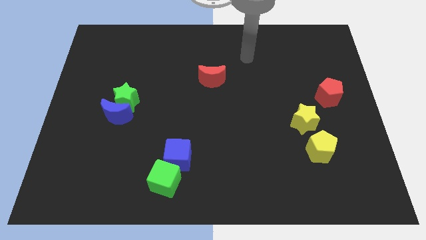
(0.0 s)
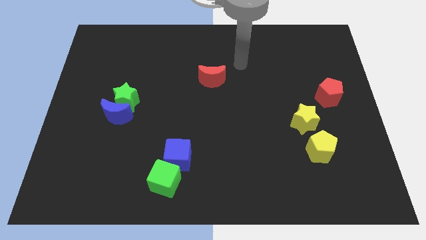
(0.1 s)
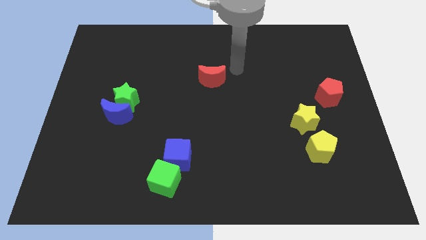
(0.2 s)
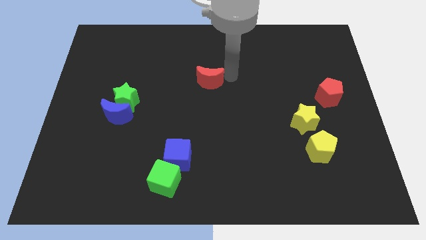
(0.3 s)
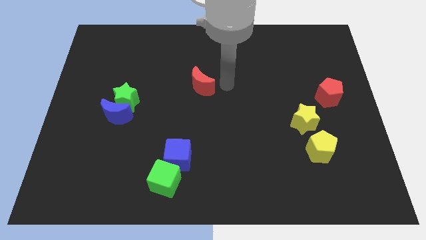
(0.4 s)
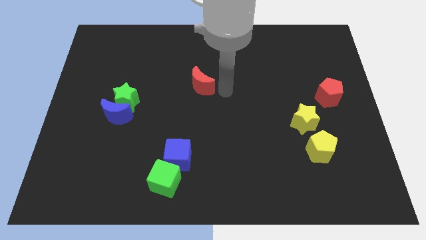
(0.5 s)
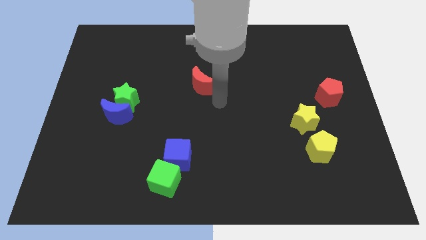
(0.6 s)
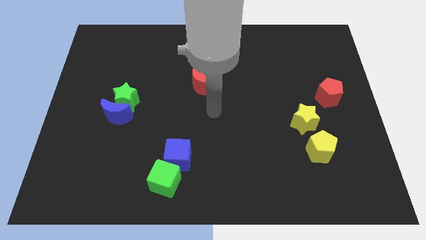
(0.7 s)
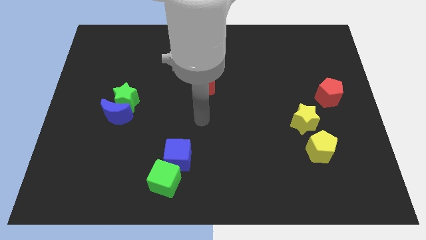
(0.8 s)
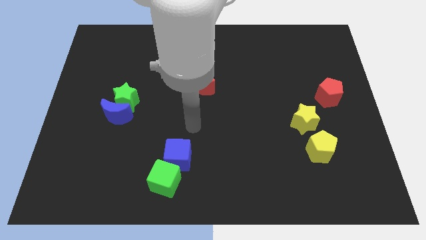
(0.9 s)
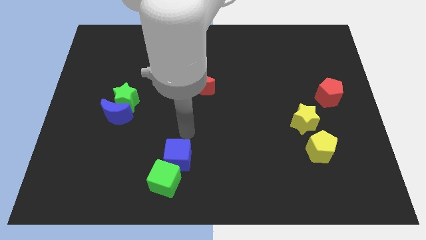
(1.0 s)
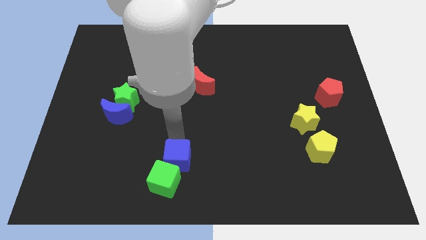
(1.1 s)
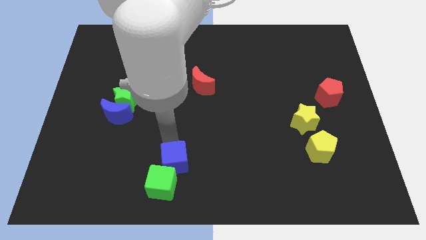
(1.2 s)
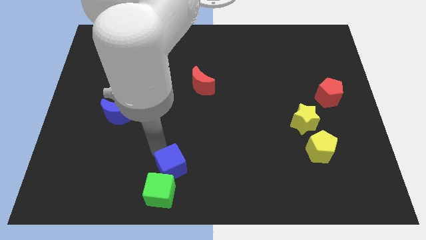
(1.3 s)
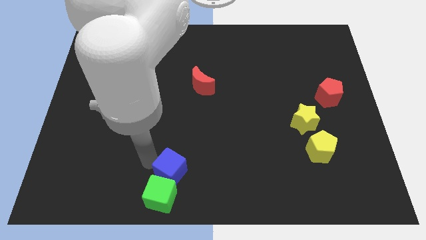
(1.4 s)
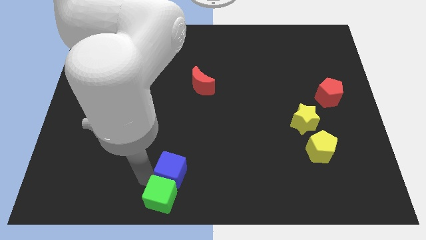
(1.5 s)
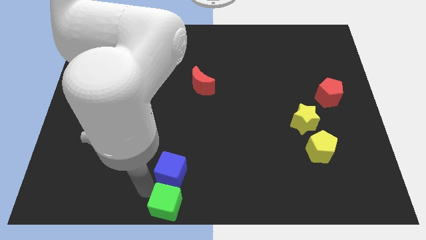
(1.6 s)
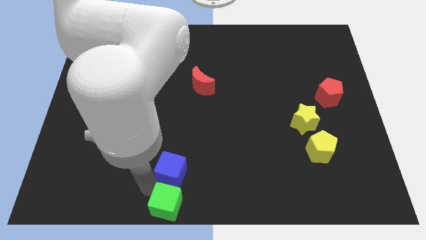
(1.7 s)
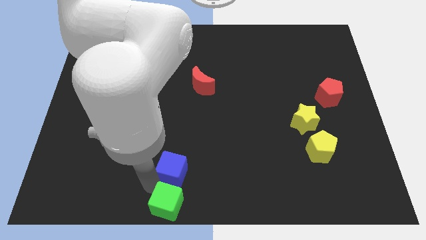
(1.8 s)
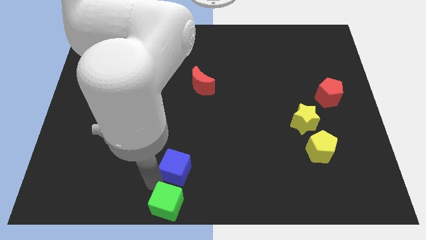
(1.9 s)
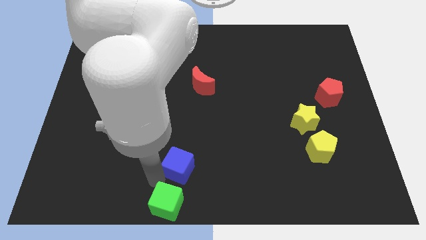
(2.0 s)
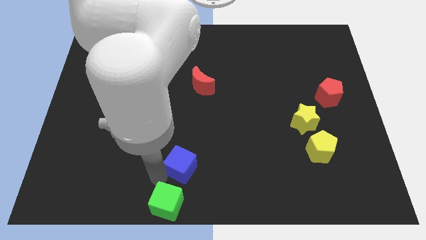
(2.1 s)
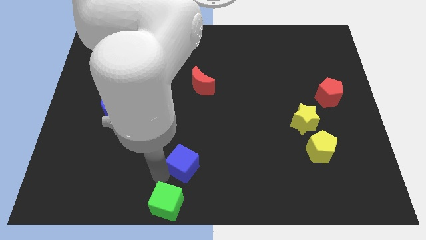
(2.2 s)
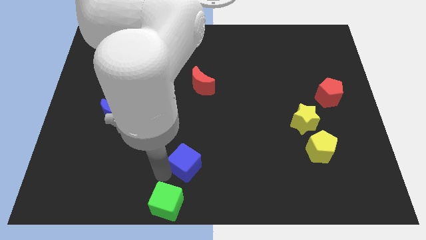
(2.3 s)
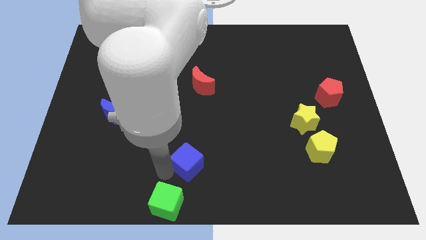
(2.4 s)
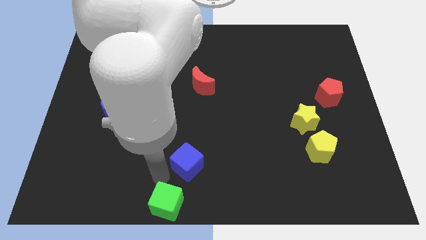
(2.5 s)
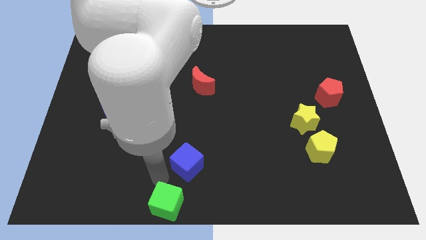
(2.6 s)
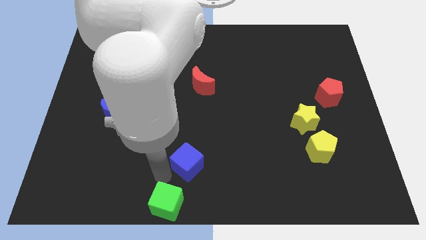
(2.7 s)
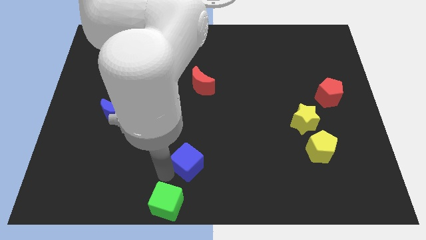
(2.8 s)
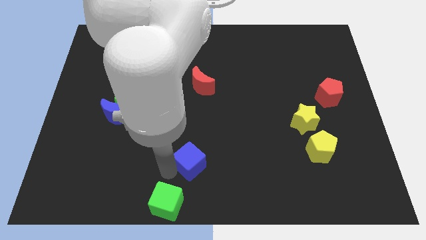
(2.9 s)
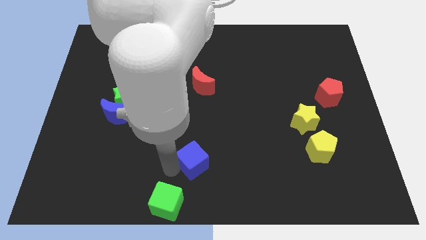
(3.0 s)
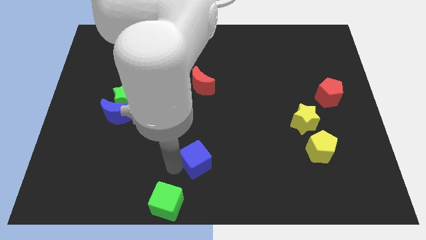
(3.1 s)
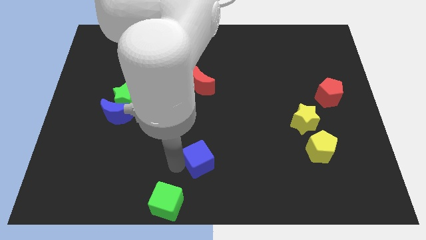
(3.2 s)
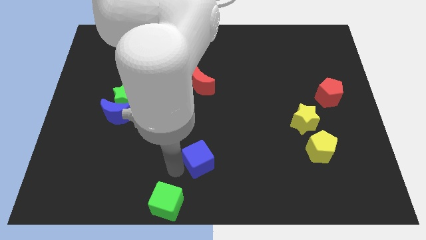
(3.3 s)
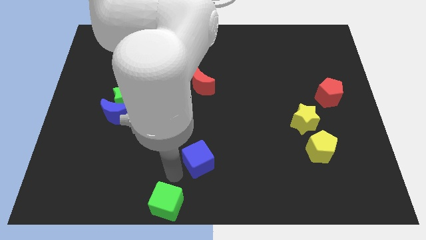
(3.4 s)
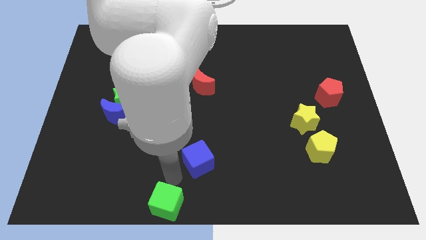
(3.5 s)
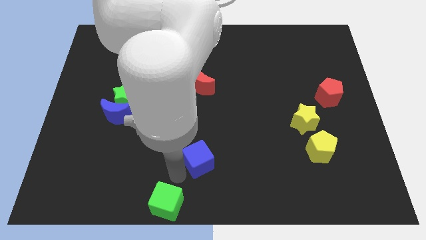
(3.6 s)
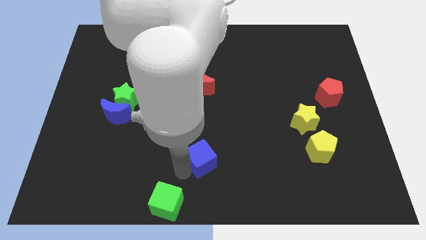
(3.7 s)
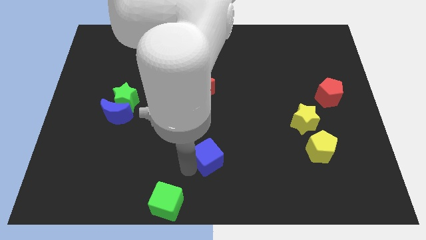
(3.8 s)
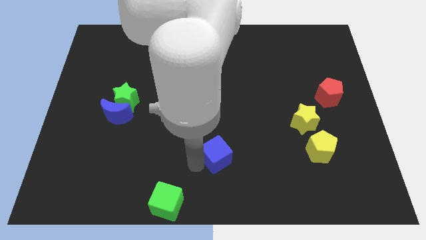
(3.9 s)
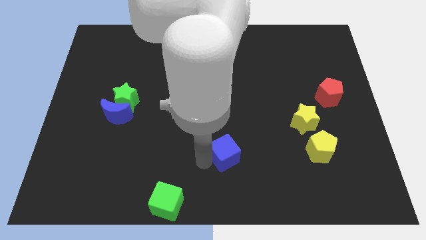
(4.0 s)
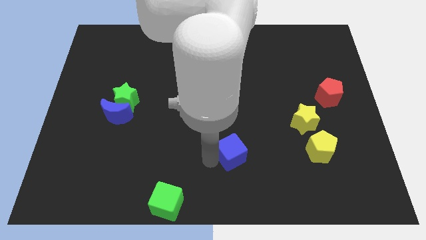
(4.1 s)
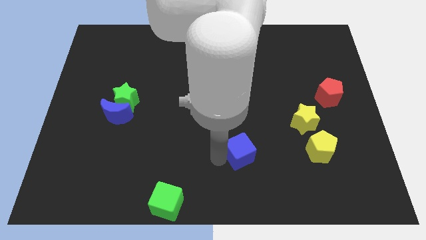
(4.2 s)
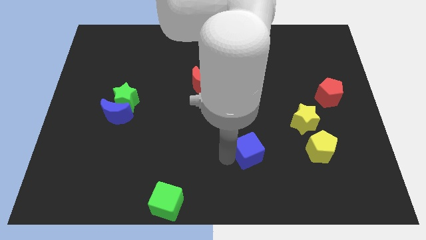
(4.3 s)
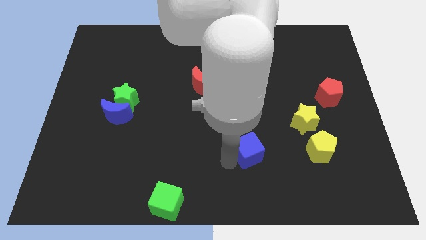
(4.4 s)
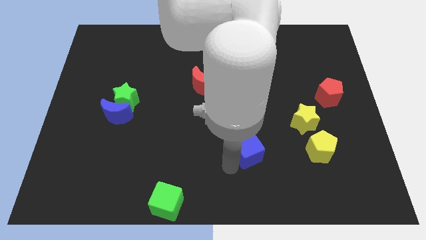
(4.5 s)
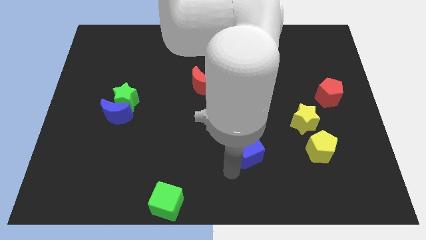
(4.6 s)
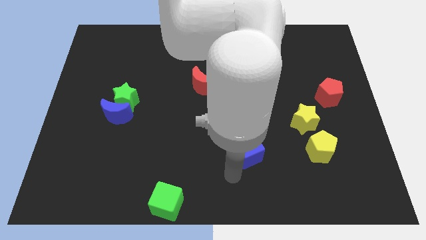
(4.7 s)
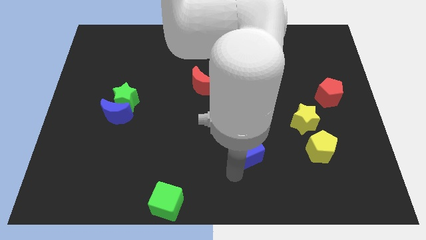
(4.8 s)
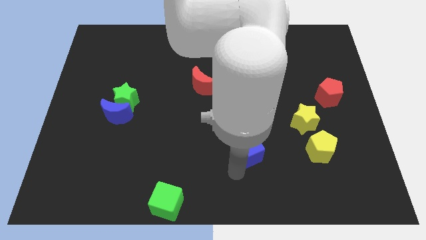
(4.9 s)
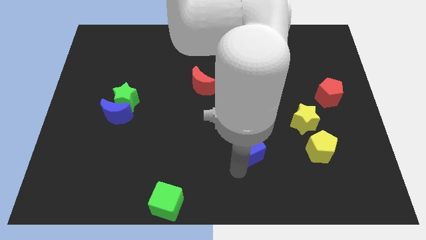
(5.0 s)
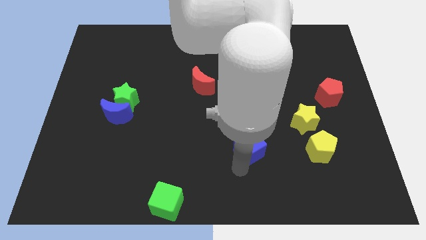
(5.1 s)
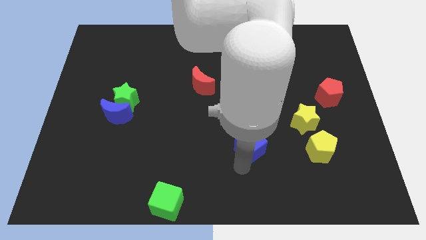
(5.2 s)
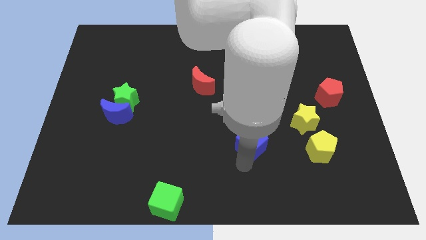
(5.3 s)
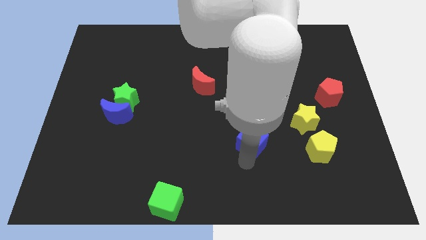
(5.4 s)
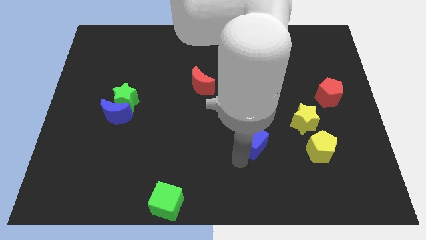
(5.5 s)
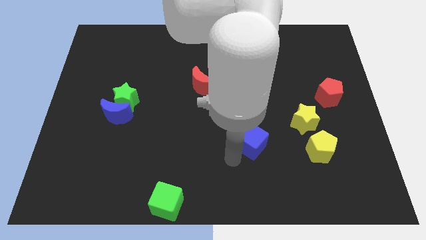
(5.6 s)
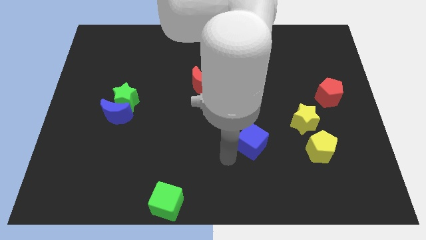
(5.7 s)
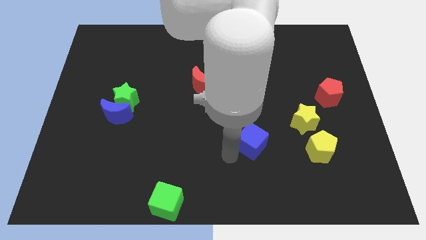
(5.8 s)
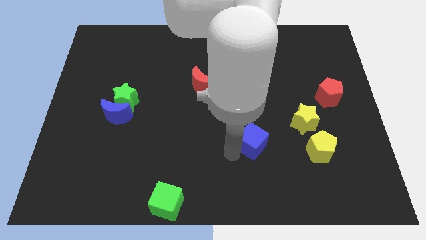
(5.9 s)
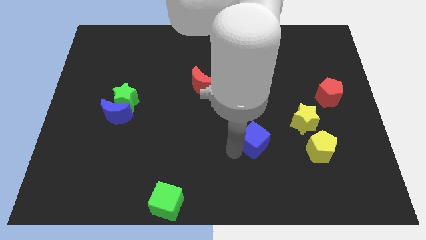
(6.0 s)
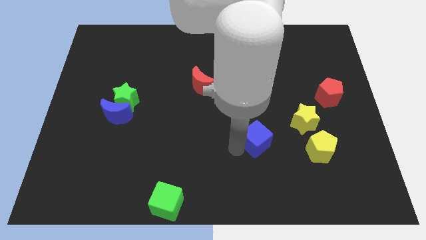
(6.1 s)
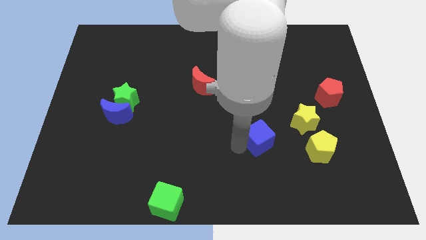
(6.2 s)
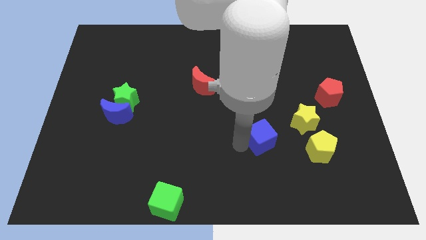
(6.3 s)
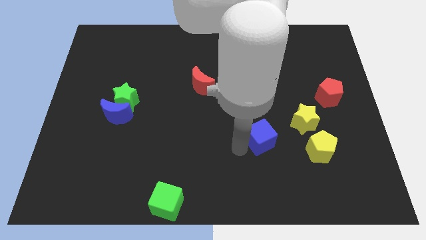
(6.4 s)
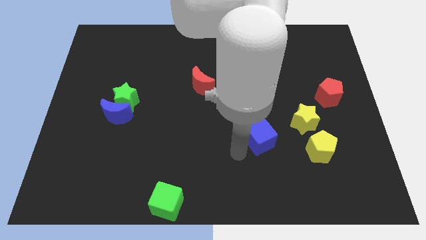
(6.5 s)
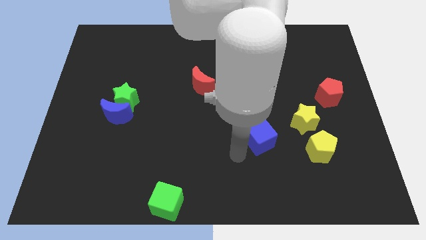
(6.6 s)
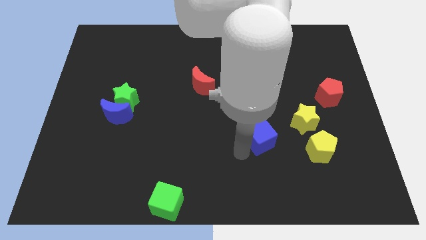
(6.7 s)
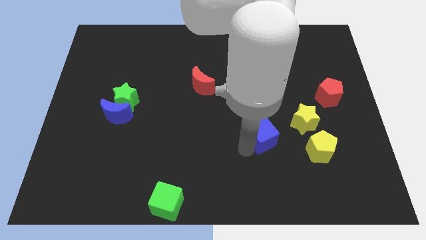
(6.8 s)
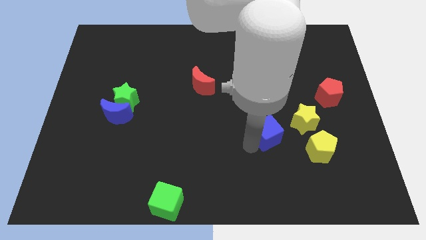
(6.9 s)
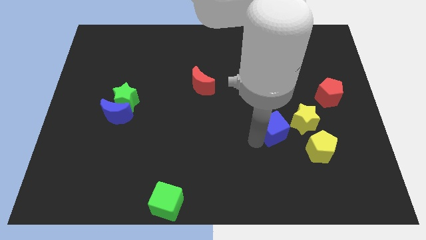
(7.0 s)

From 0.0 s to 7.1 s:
push the blue cube to the top left side of the yellow pentagon

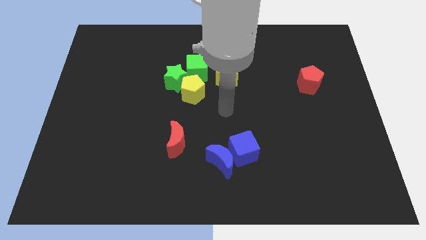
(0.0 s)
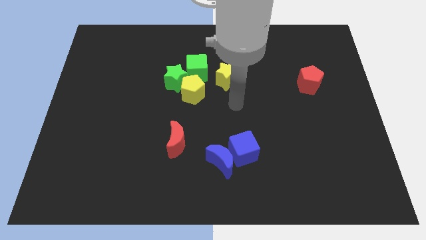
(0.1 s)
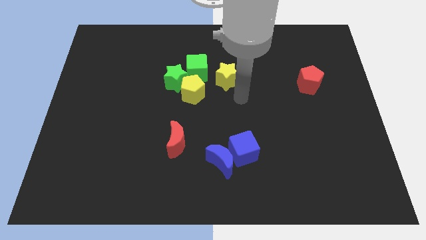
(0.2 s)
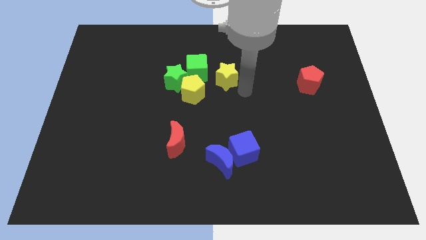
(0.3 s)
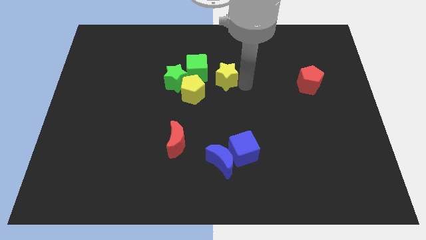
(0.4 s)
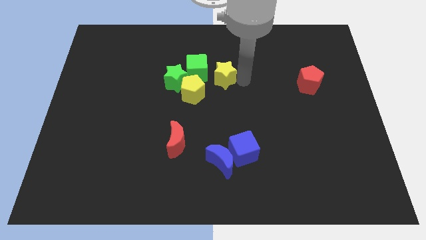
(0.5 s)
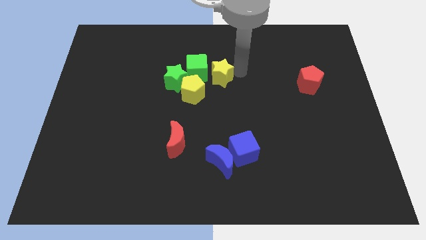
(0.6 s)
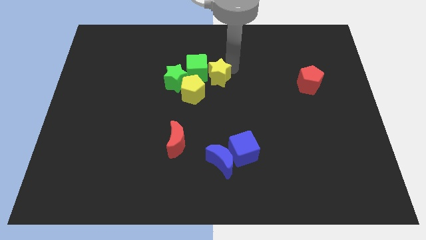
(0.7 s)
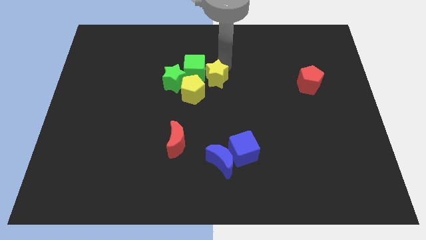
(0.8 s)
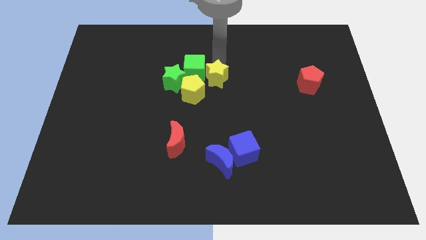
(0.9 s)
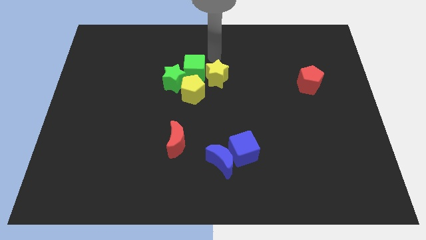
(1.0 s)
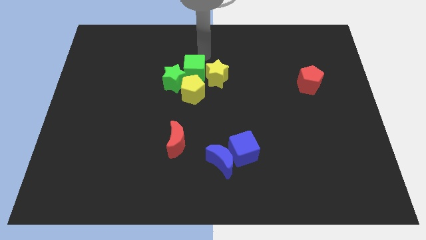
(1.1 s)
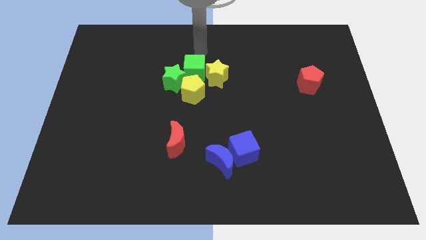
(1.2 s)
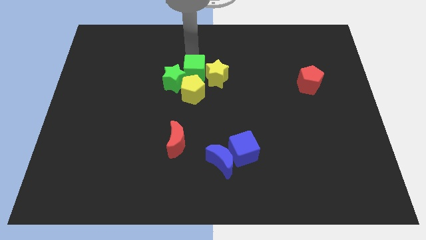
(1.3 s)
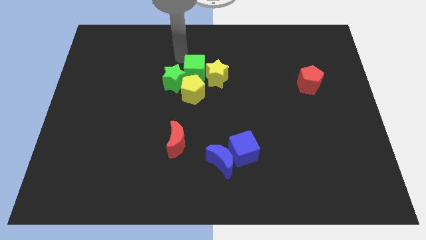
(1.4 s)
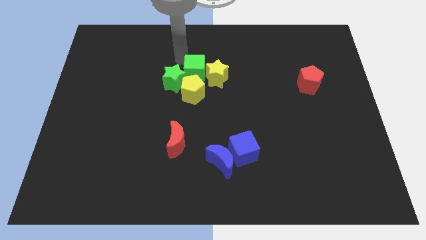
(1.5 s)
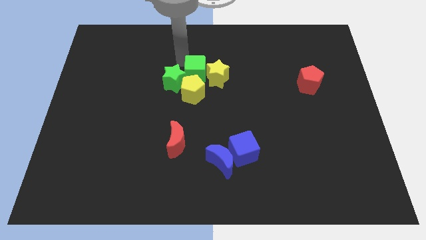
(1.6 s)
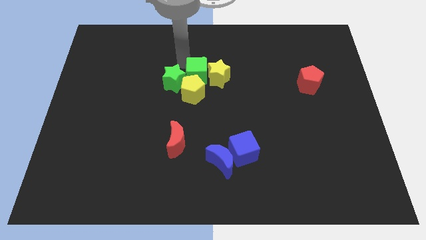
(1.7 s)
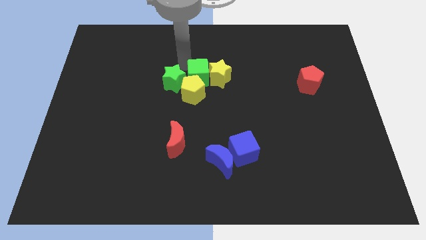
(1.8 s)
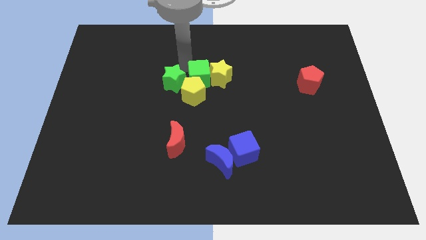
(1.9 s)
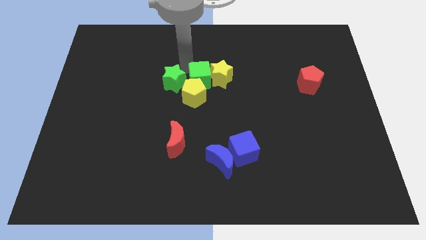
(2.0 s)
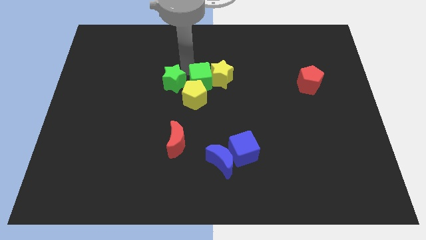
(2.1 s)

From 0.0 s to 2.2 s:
slide the green cube diagonally down and to the right of the green star
